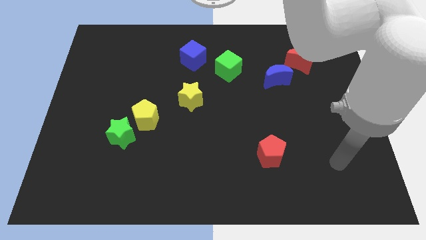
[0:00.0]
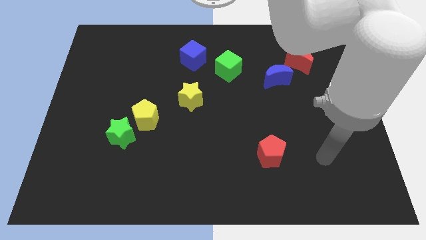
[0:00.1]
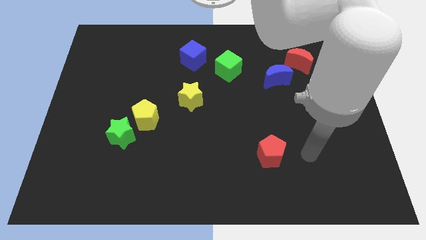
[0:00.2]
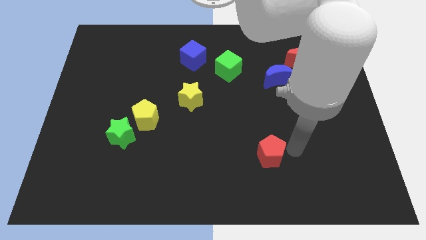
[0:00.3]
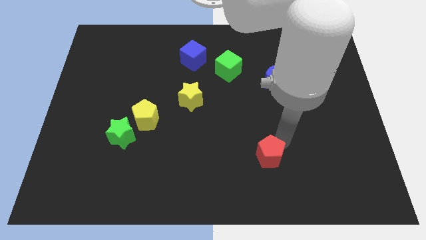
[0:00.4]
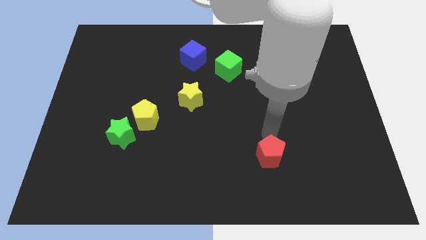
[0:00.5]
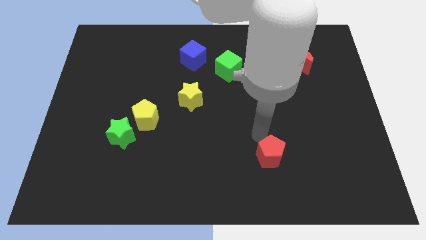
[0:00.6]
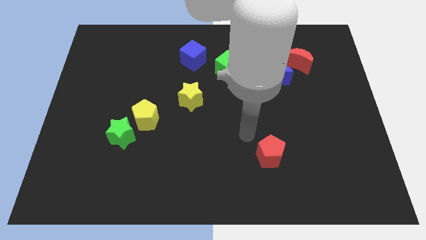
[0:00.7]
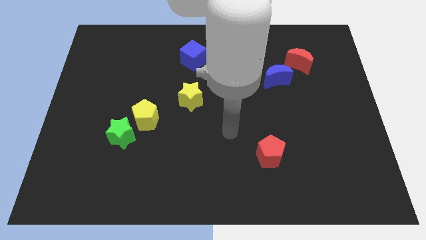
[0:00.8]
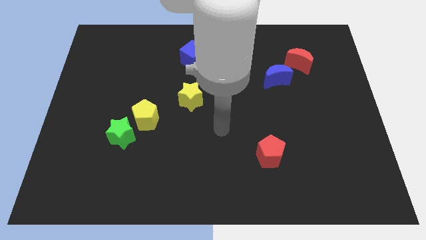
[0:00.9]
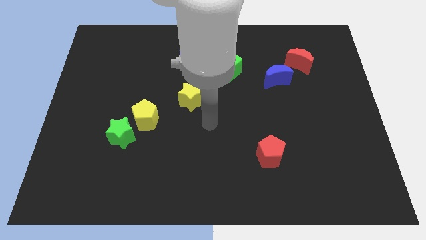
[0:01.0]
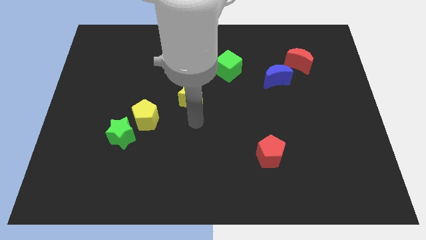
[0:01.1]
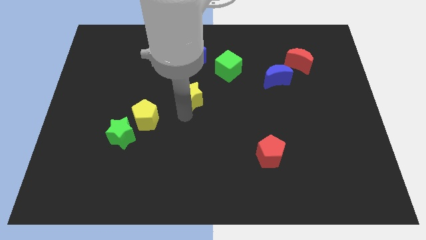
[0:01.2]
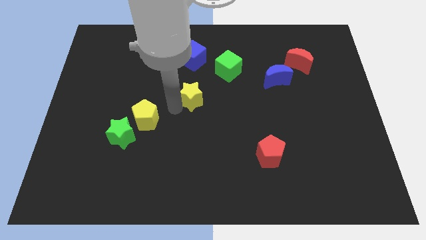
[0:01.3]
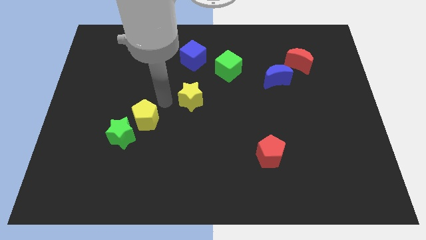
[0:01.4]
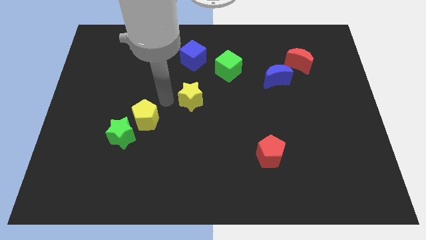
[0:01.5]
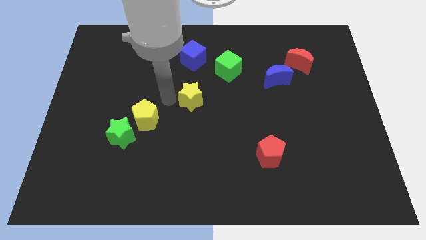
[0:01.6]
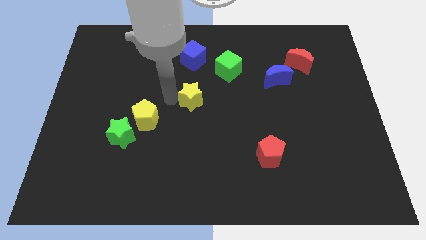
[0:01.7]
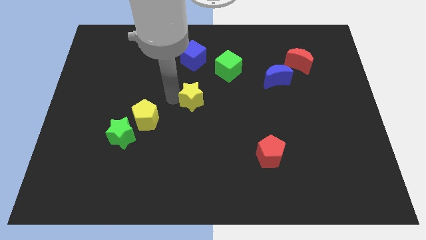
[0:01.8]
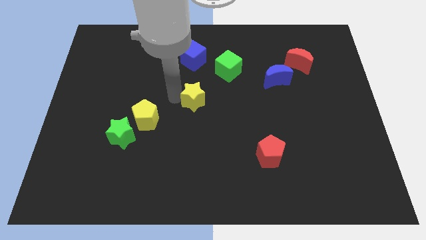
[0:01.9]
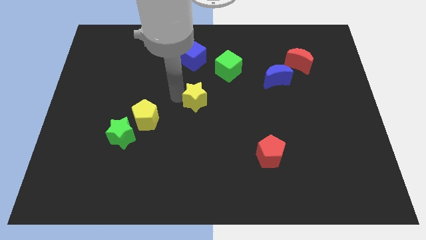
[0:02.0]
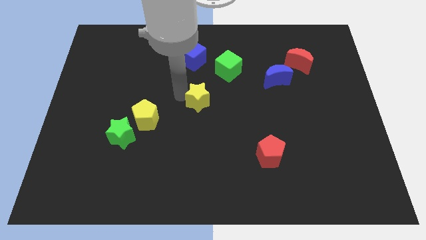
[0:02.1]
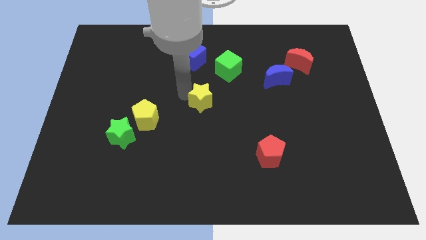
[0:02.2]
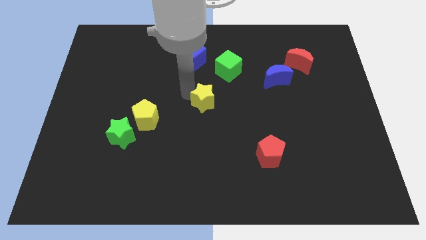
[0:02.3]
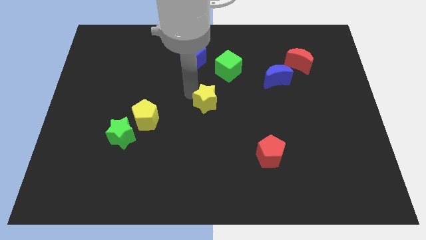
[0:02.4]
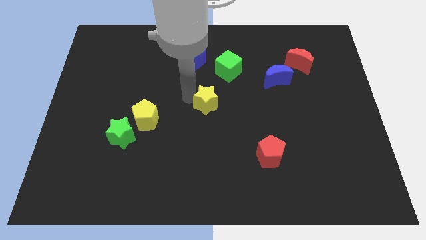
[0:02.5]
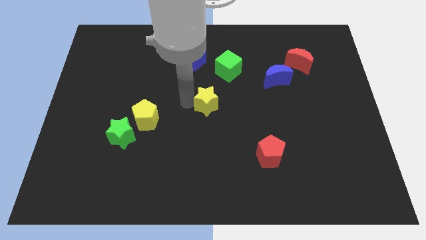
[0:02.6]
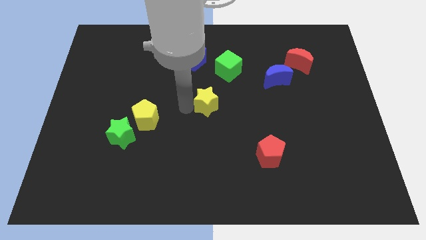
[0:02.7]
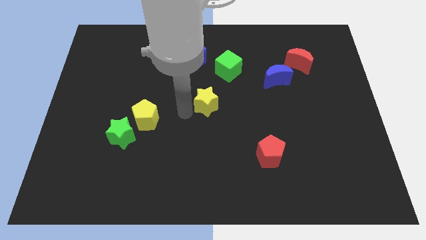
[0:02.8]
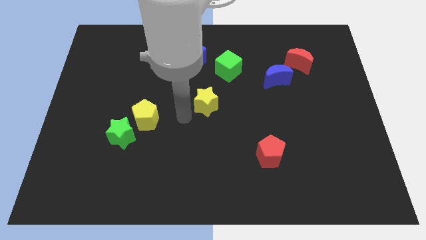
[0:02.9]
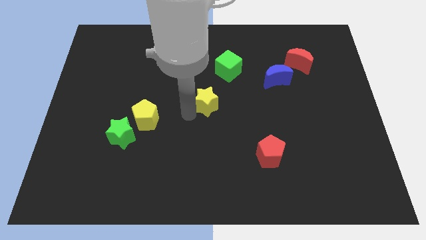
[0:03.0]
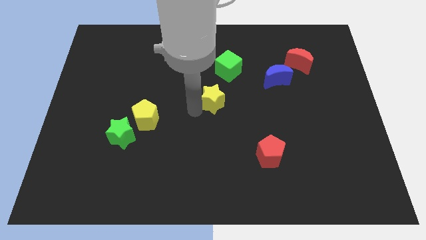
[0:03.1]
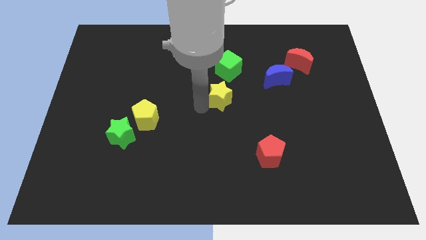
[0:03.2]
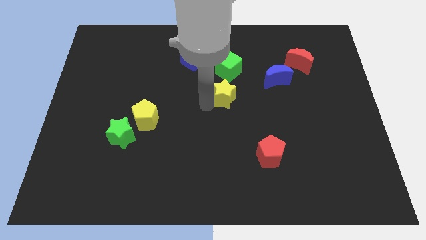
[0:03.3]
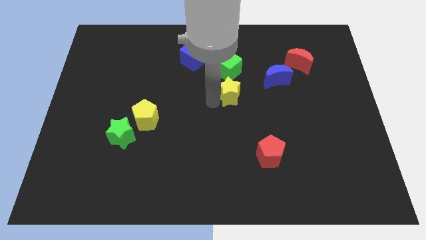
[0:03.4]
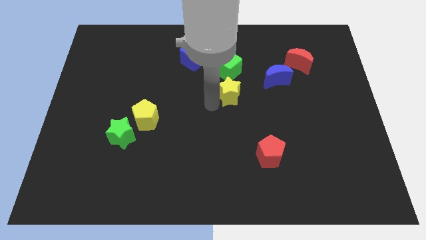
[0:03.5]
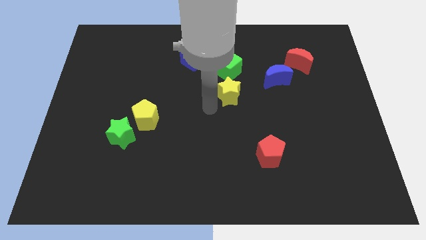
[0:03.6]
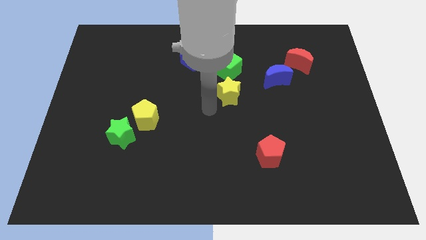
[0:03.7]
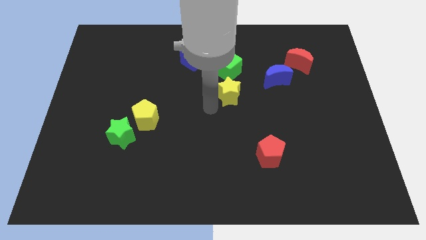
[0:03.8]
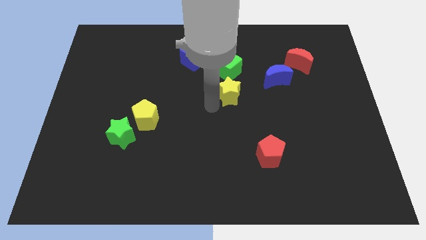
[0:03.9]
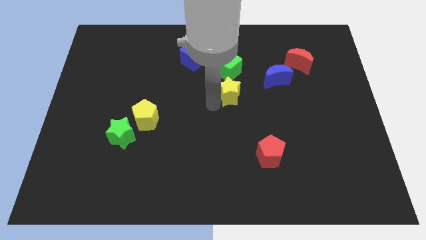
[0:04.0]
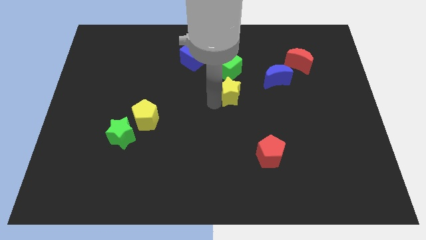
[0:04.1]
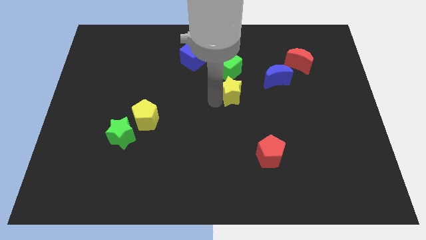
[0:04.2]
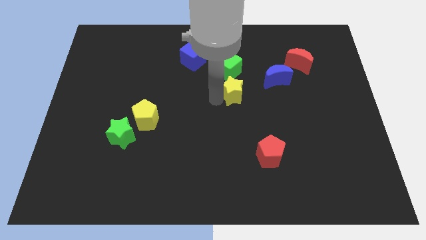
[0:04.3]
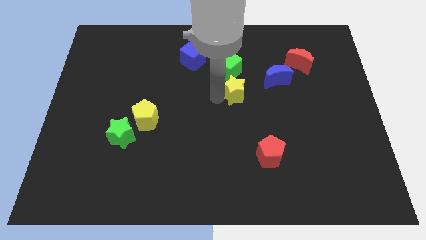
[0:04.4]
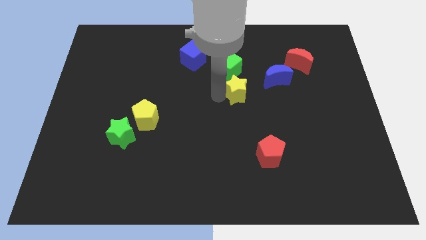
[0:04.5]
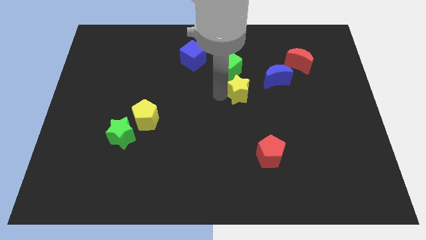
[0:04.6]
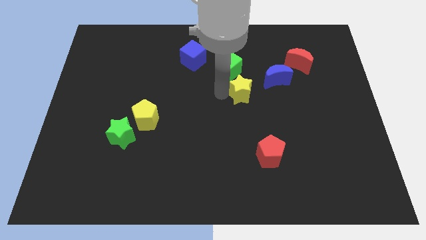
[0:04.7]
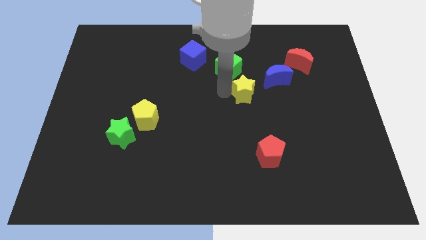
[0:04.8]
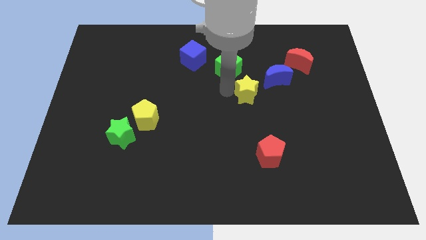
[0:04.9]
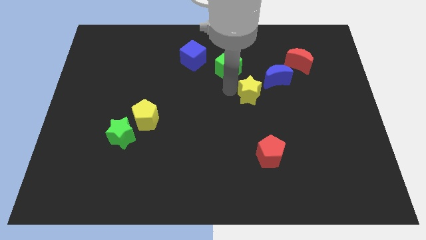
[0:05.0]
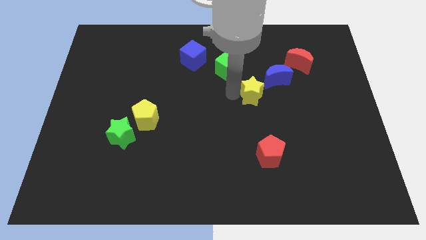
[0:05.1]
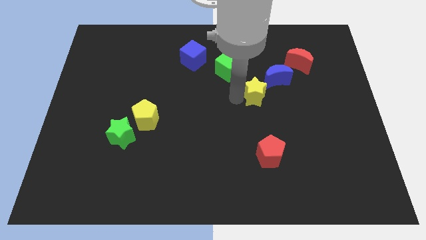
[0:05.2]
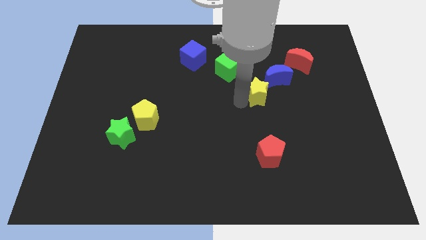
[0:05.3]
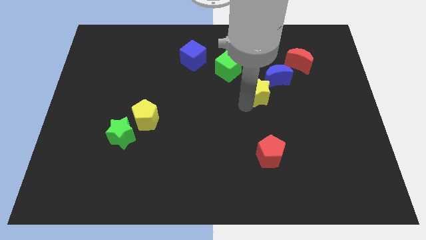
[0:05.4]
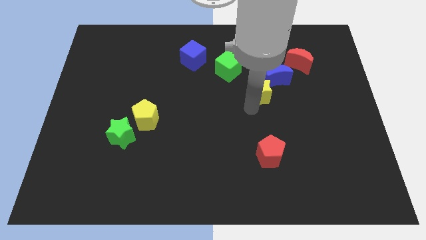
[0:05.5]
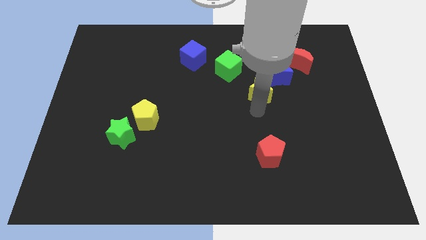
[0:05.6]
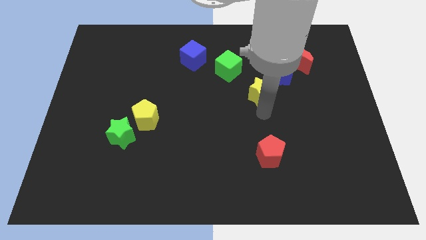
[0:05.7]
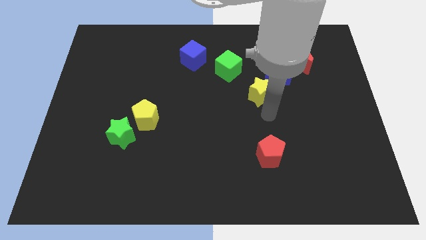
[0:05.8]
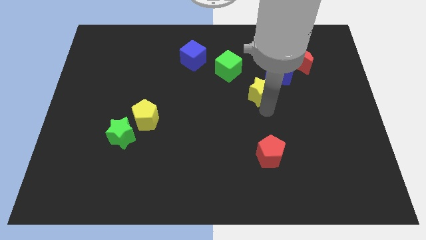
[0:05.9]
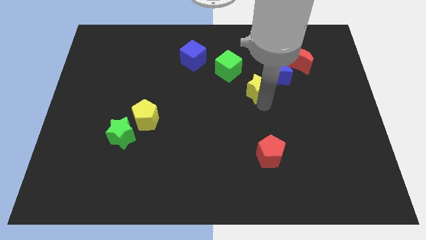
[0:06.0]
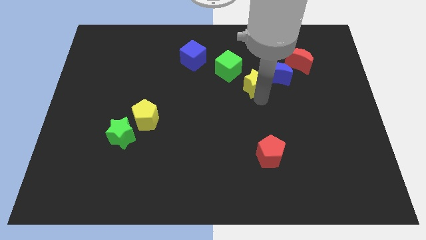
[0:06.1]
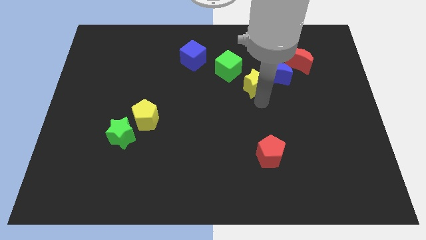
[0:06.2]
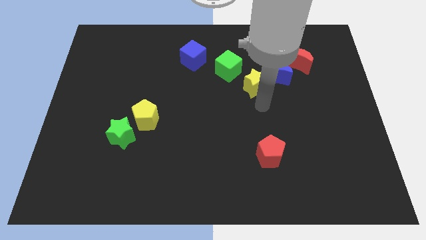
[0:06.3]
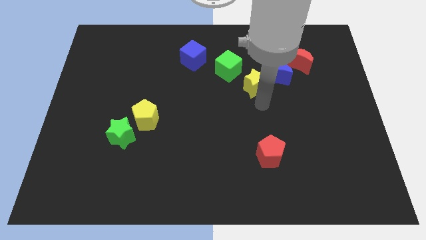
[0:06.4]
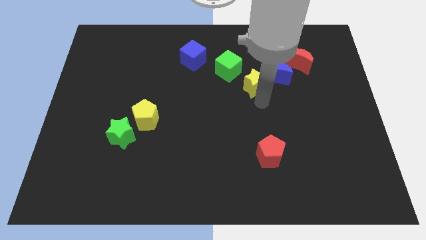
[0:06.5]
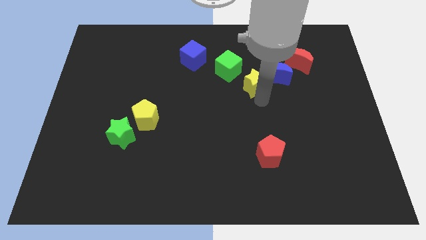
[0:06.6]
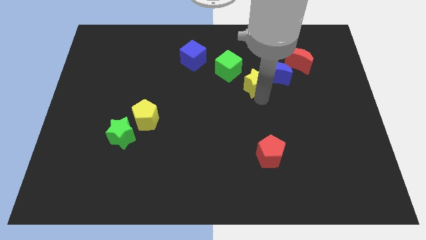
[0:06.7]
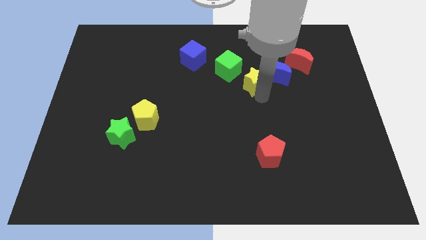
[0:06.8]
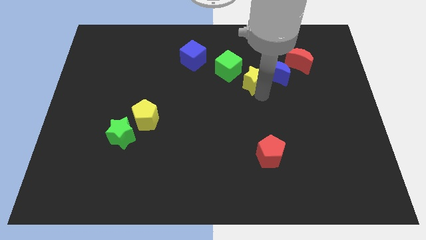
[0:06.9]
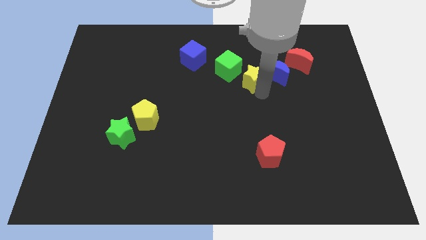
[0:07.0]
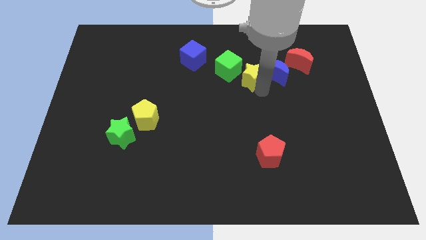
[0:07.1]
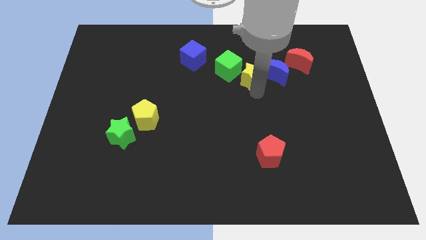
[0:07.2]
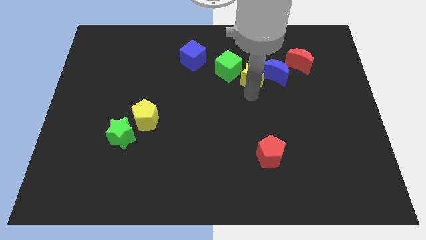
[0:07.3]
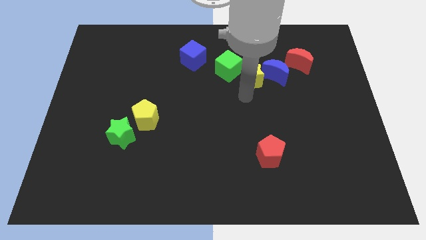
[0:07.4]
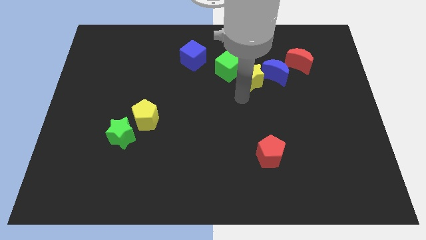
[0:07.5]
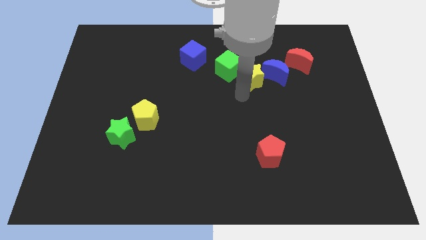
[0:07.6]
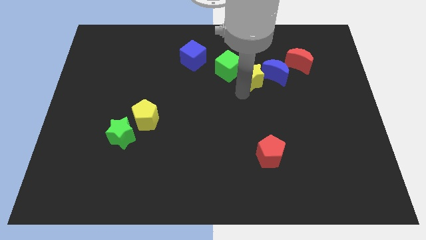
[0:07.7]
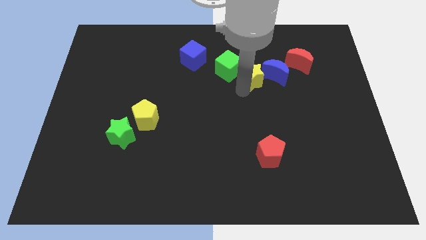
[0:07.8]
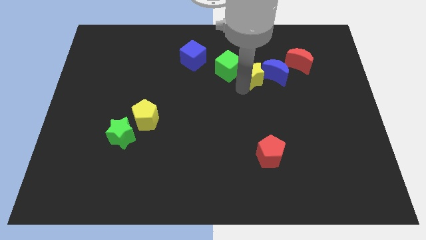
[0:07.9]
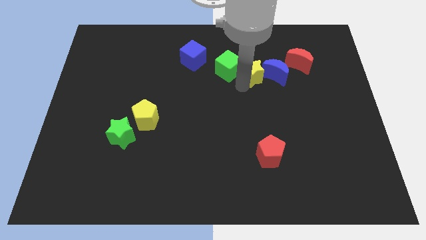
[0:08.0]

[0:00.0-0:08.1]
move the yellow star to the left side of the red moon
